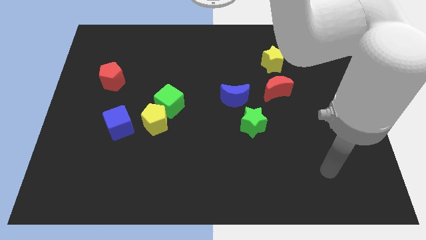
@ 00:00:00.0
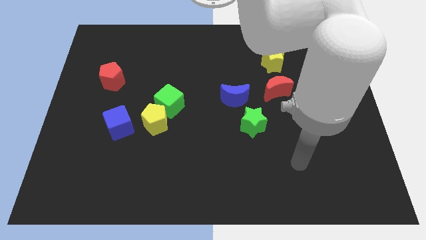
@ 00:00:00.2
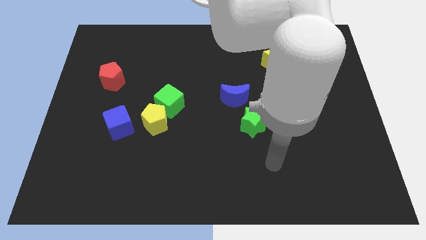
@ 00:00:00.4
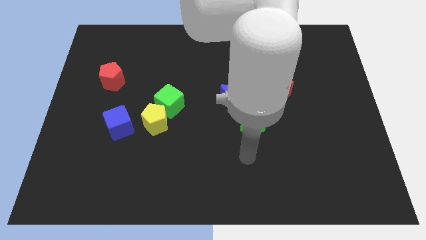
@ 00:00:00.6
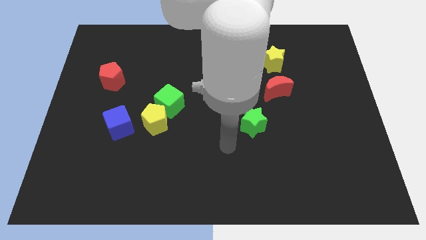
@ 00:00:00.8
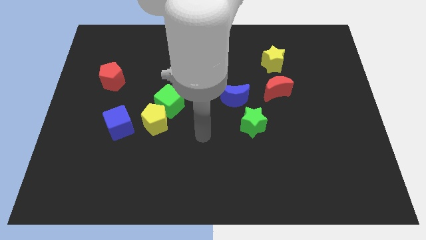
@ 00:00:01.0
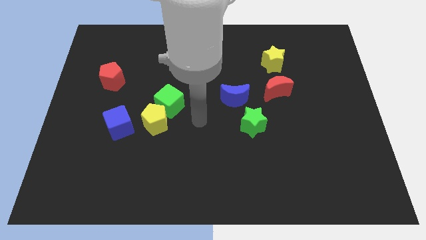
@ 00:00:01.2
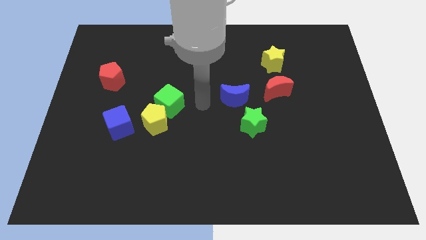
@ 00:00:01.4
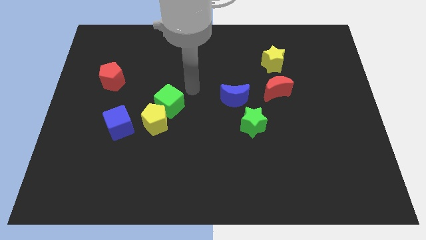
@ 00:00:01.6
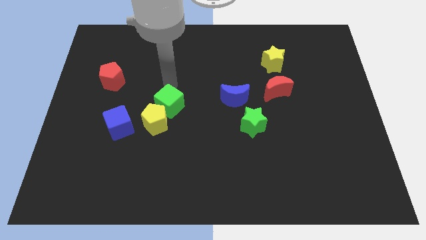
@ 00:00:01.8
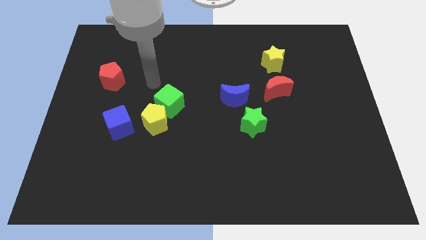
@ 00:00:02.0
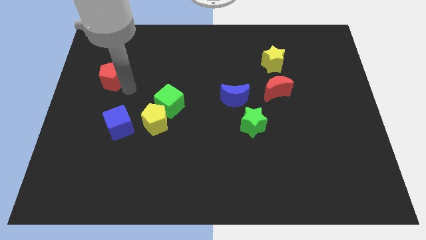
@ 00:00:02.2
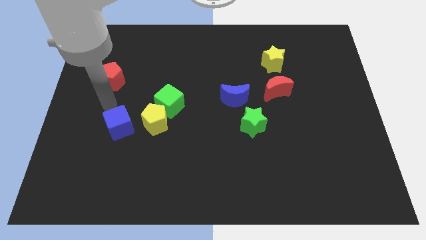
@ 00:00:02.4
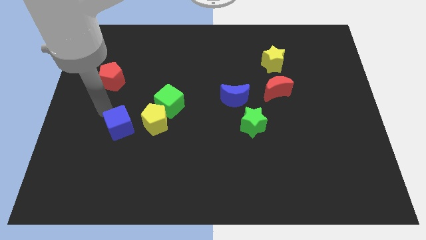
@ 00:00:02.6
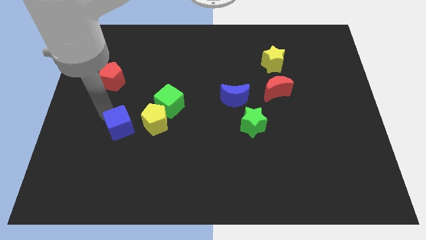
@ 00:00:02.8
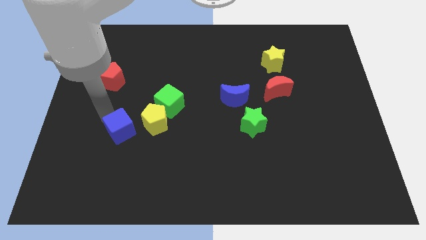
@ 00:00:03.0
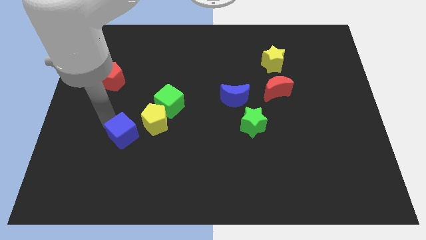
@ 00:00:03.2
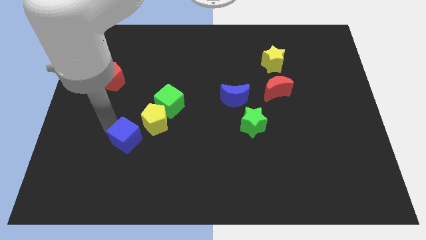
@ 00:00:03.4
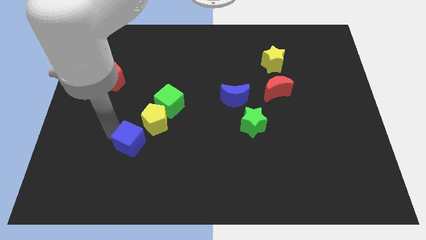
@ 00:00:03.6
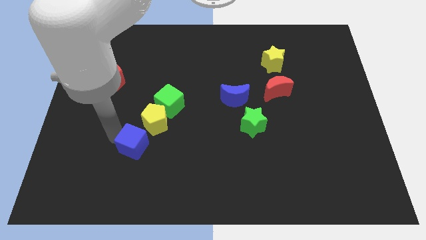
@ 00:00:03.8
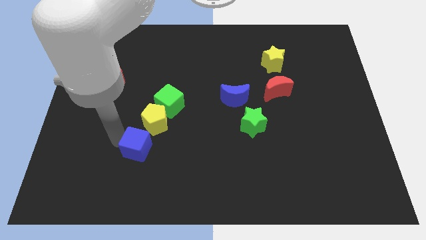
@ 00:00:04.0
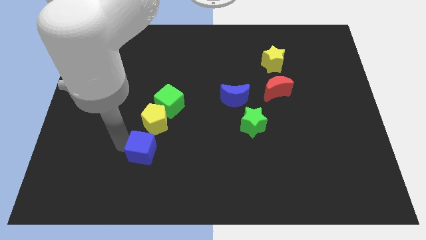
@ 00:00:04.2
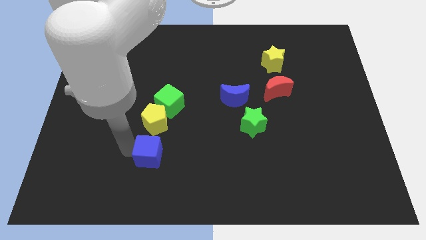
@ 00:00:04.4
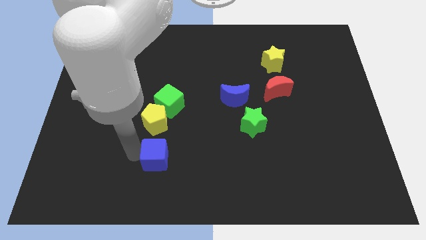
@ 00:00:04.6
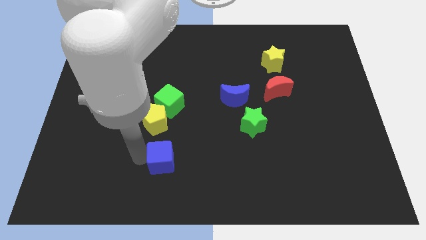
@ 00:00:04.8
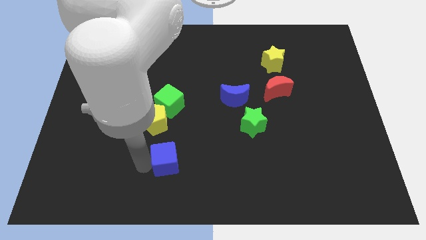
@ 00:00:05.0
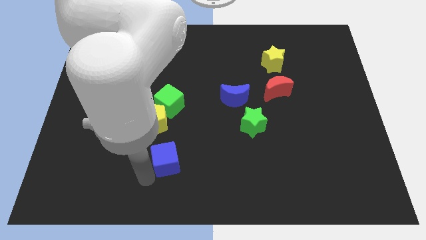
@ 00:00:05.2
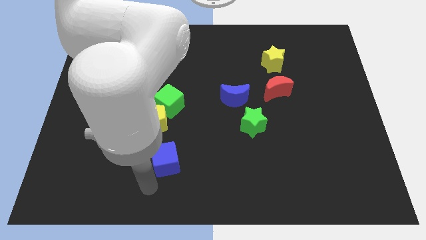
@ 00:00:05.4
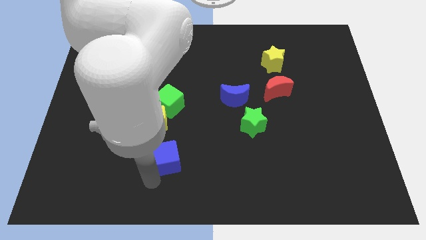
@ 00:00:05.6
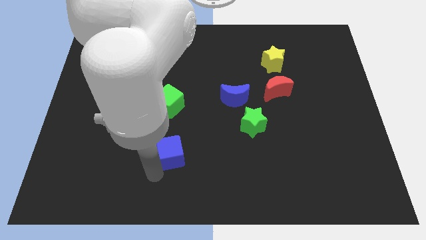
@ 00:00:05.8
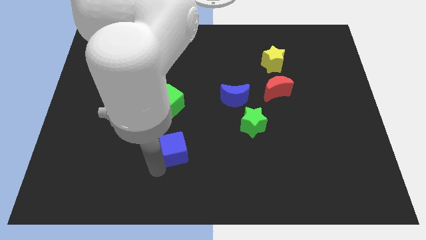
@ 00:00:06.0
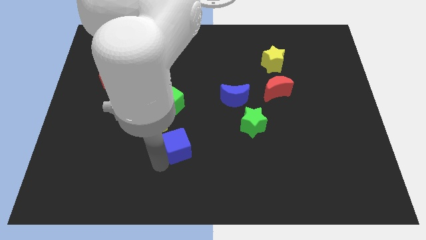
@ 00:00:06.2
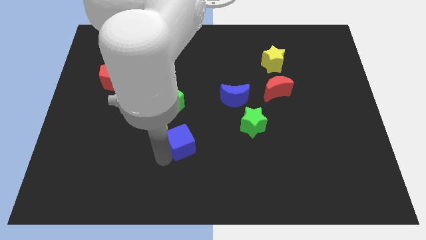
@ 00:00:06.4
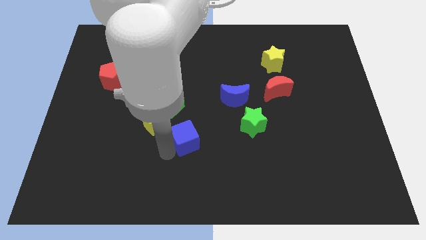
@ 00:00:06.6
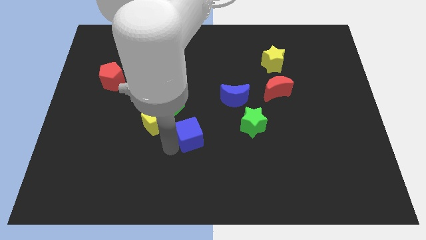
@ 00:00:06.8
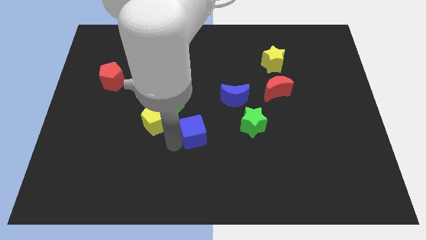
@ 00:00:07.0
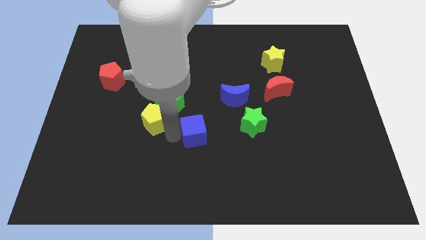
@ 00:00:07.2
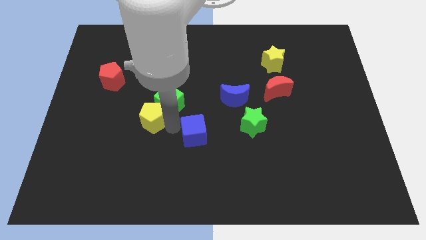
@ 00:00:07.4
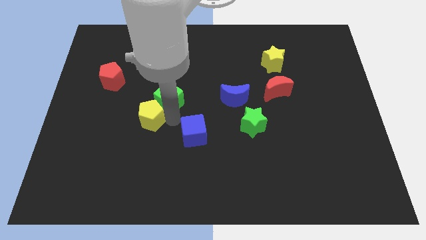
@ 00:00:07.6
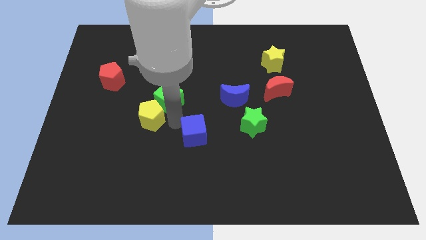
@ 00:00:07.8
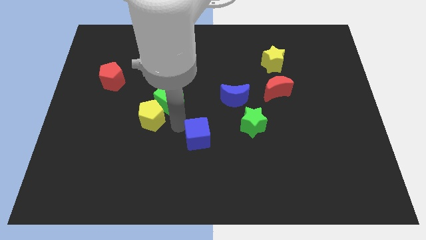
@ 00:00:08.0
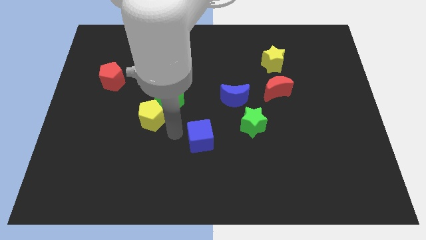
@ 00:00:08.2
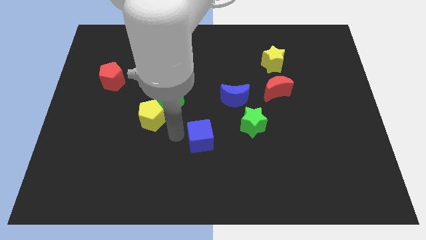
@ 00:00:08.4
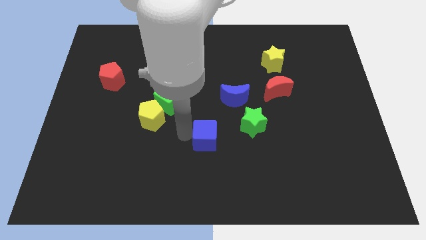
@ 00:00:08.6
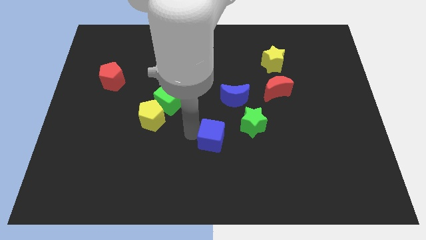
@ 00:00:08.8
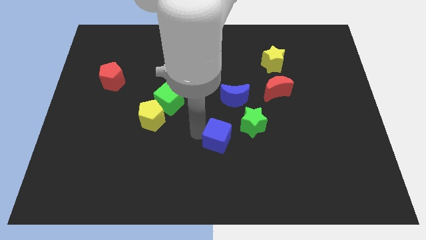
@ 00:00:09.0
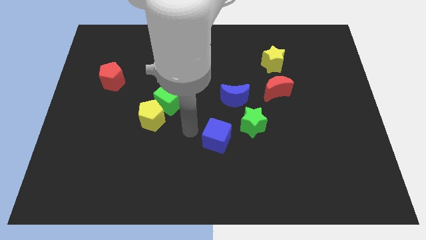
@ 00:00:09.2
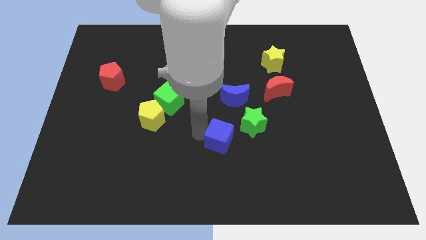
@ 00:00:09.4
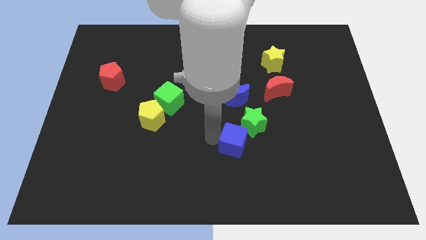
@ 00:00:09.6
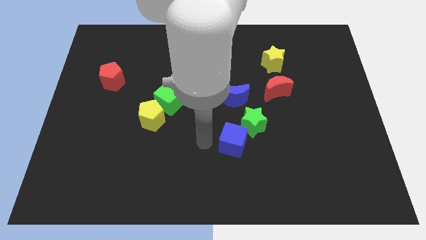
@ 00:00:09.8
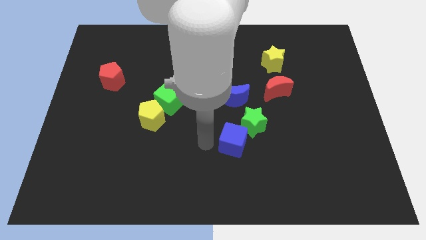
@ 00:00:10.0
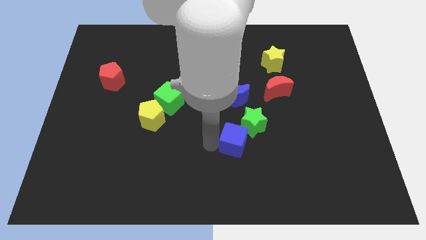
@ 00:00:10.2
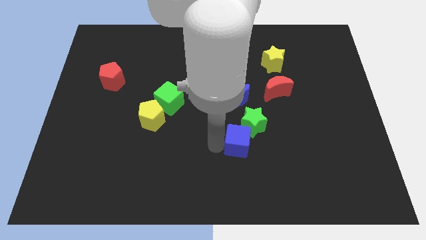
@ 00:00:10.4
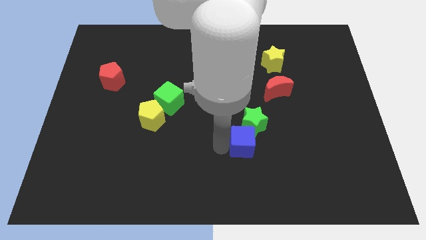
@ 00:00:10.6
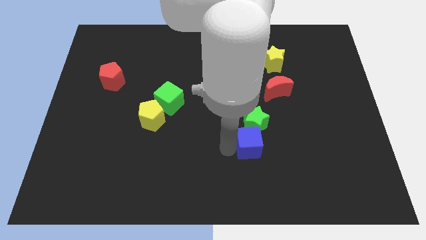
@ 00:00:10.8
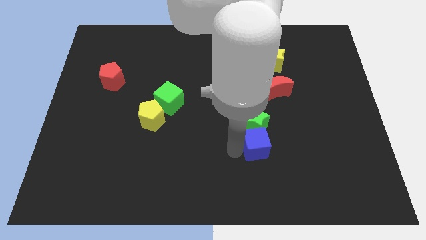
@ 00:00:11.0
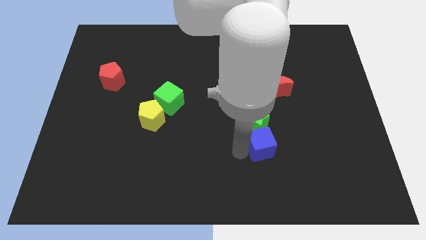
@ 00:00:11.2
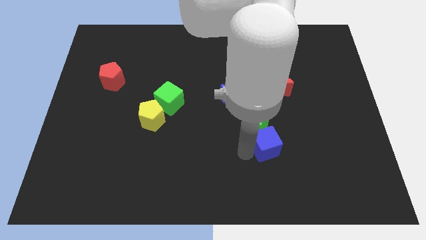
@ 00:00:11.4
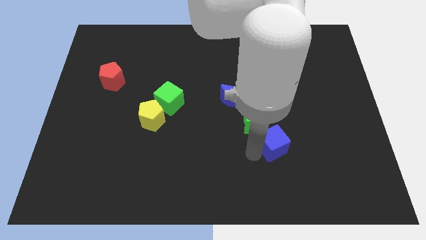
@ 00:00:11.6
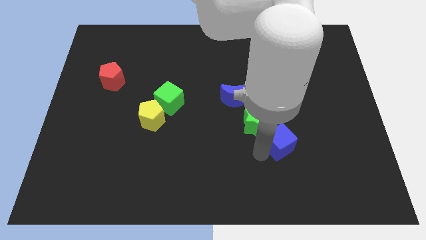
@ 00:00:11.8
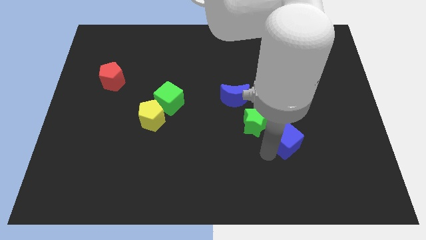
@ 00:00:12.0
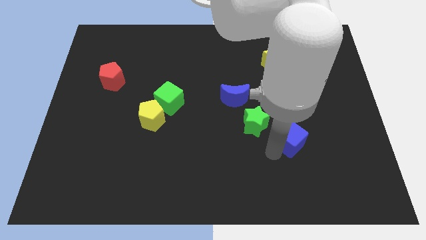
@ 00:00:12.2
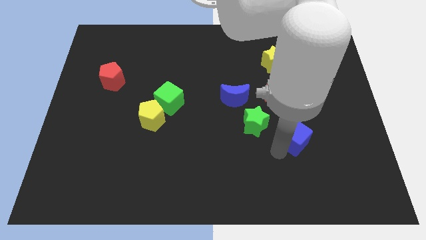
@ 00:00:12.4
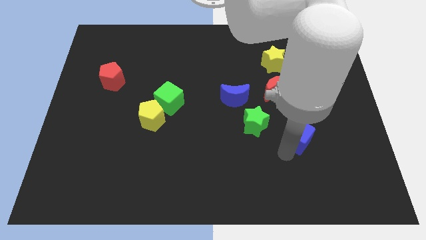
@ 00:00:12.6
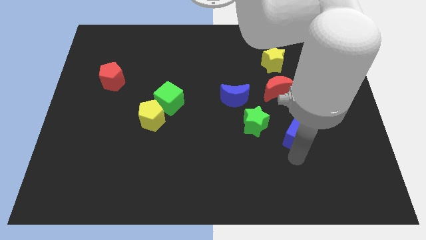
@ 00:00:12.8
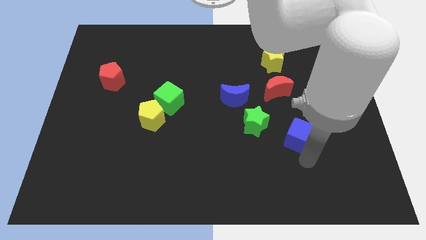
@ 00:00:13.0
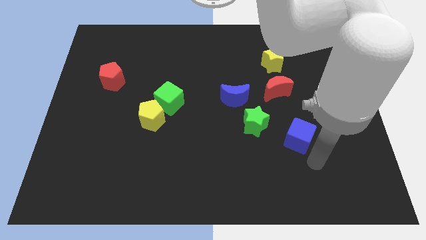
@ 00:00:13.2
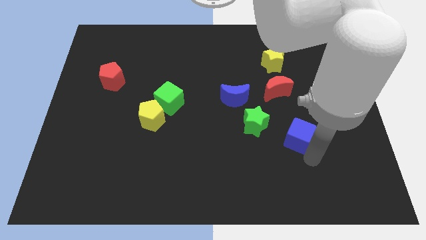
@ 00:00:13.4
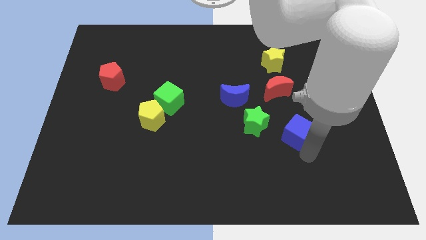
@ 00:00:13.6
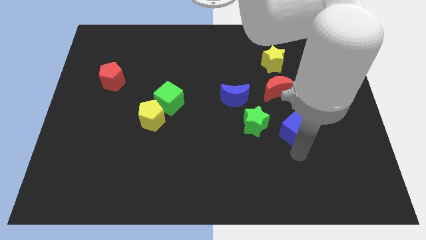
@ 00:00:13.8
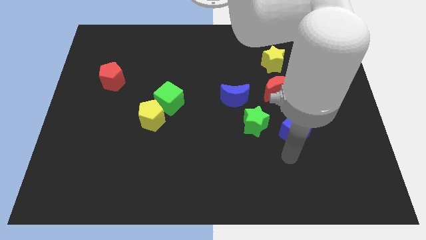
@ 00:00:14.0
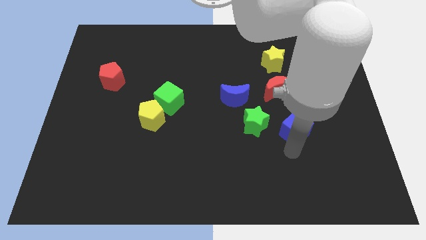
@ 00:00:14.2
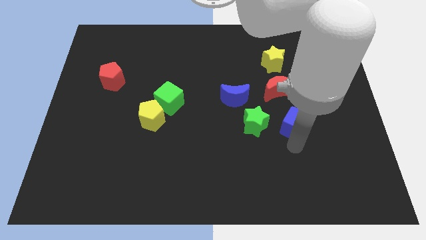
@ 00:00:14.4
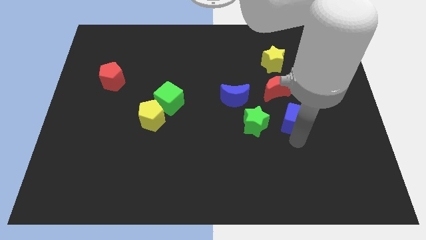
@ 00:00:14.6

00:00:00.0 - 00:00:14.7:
push the blue cube to the bottom right of the red moon
